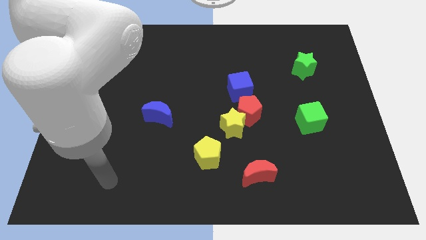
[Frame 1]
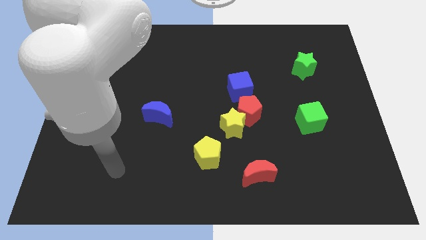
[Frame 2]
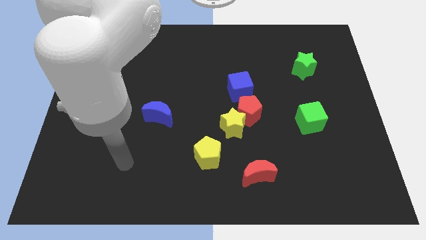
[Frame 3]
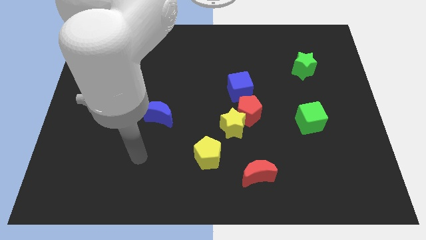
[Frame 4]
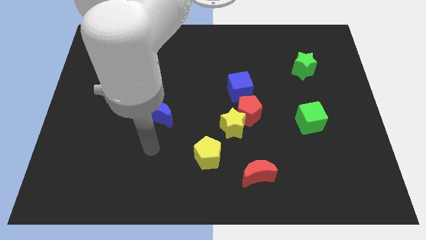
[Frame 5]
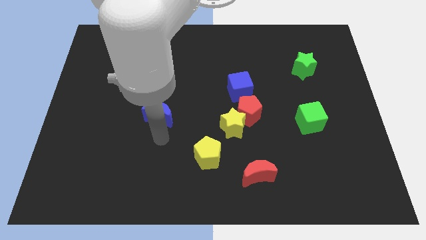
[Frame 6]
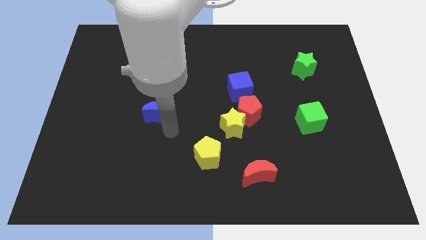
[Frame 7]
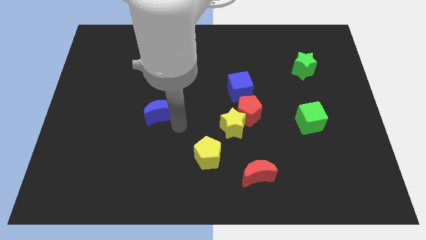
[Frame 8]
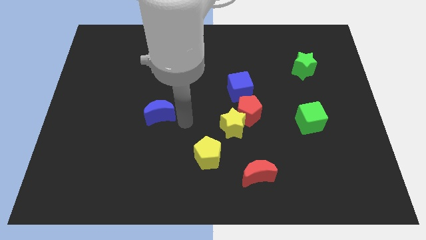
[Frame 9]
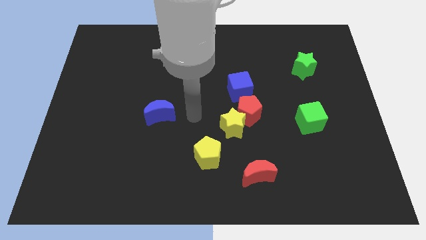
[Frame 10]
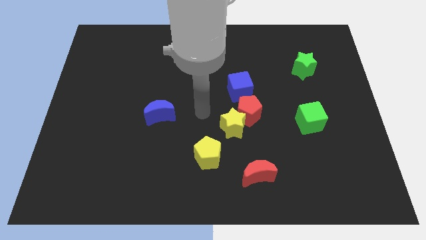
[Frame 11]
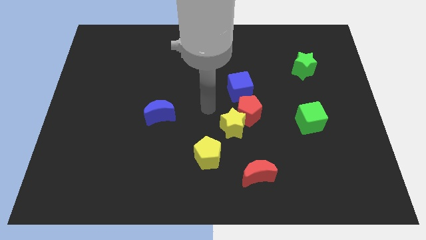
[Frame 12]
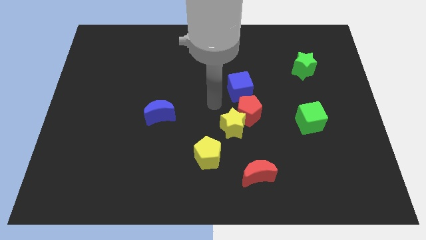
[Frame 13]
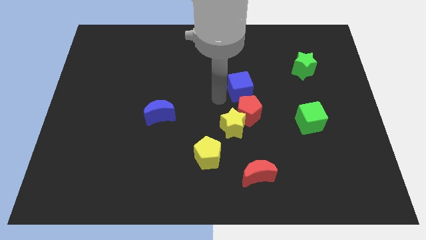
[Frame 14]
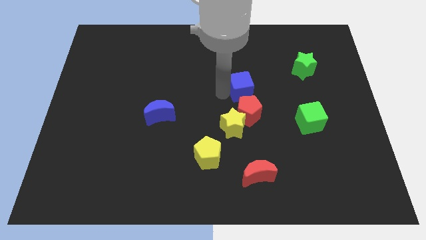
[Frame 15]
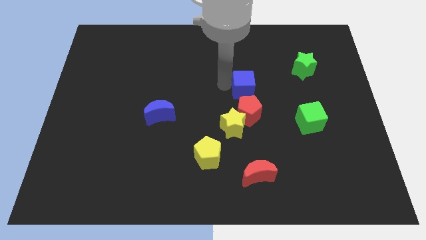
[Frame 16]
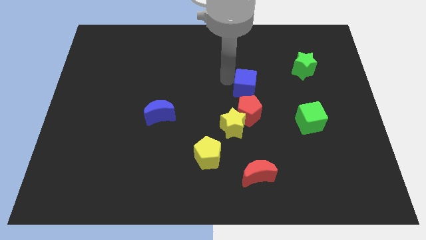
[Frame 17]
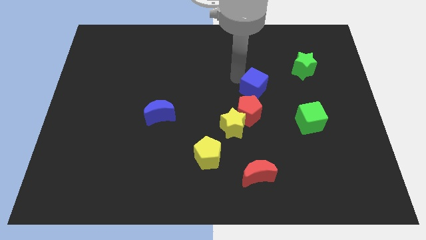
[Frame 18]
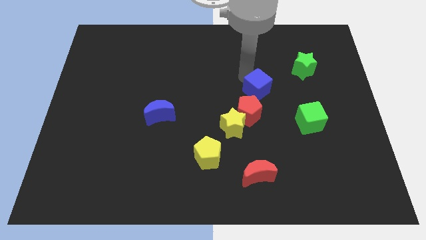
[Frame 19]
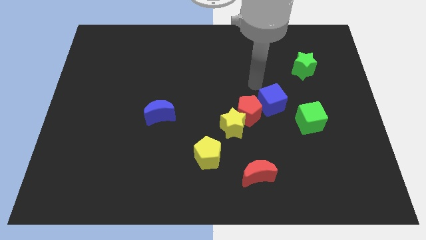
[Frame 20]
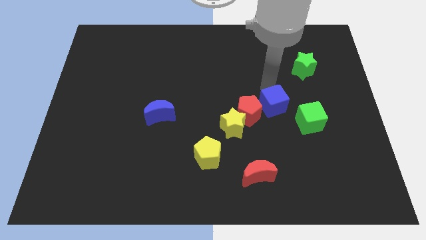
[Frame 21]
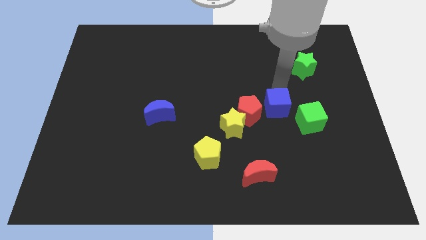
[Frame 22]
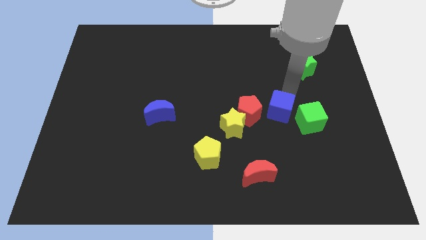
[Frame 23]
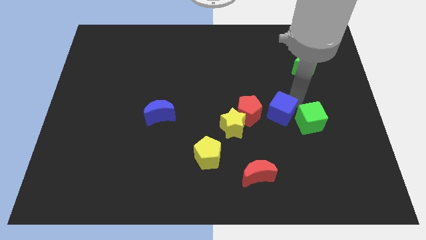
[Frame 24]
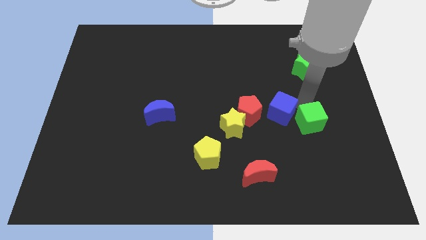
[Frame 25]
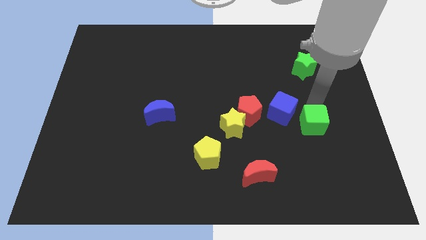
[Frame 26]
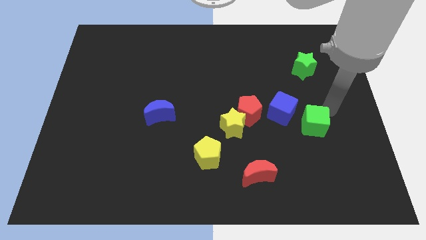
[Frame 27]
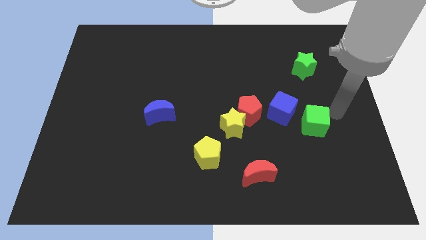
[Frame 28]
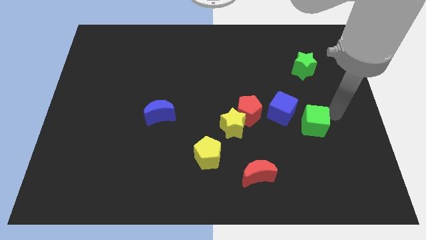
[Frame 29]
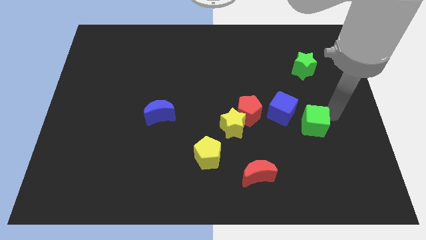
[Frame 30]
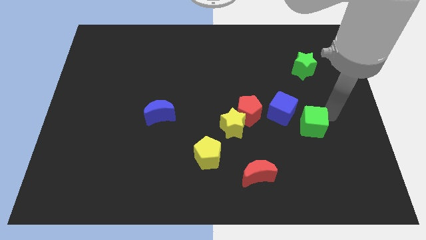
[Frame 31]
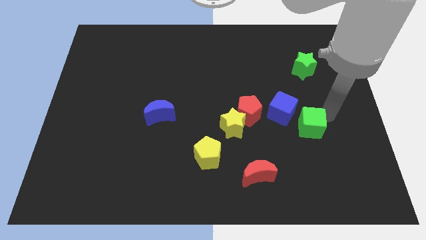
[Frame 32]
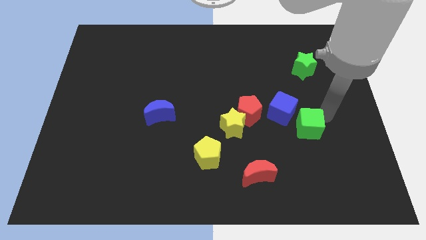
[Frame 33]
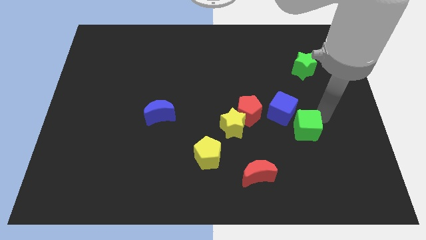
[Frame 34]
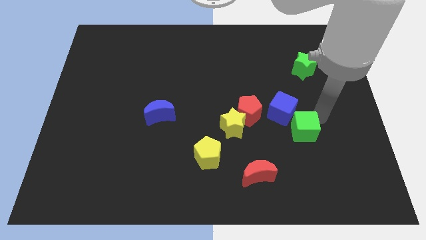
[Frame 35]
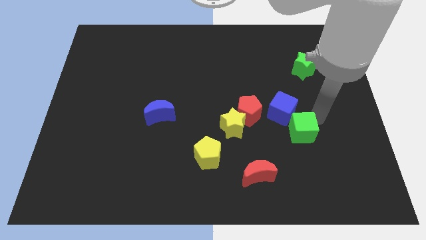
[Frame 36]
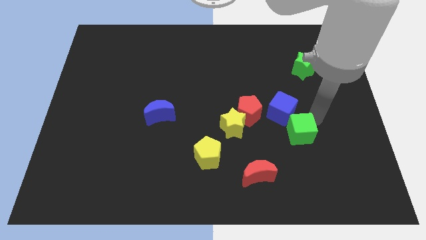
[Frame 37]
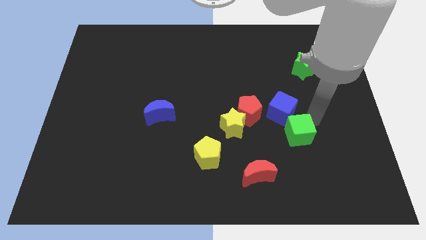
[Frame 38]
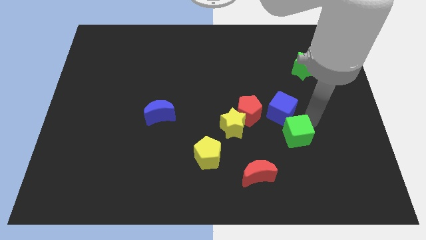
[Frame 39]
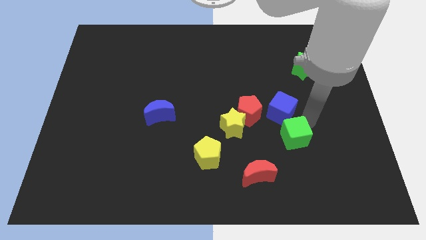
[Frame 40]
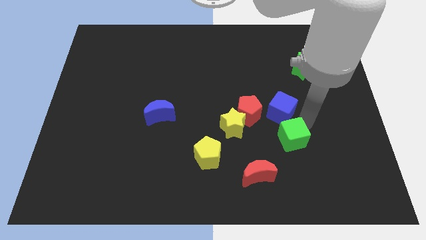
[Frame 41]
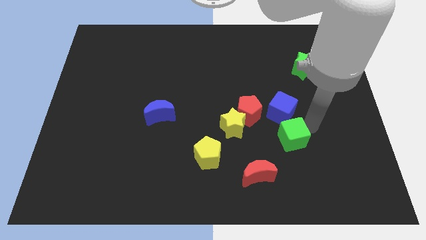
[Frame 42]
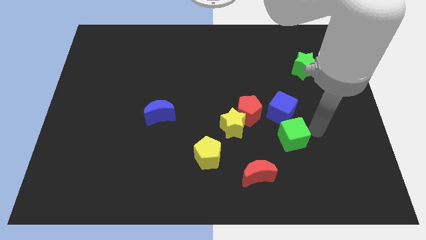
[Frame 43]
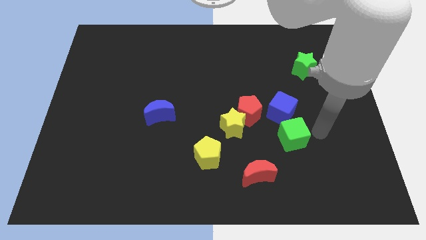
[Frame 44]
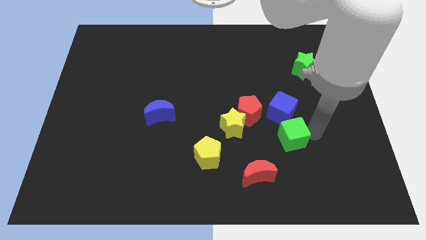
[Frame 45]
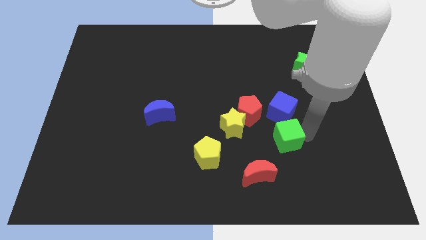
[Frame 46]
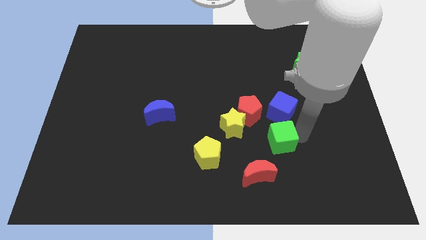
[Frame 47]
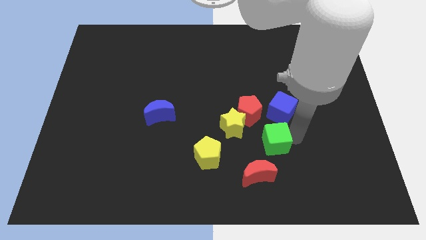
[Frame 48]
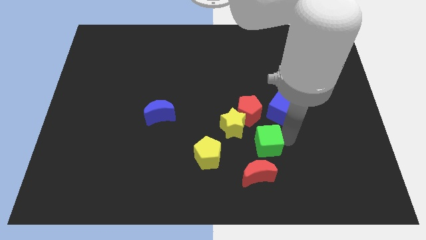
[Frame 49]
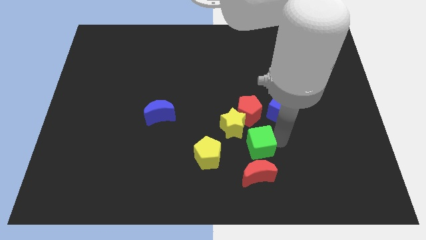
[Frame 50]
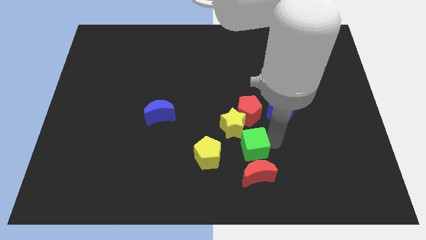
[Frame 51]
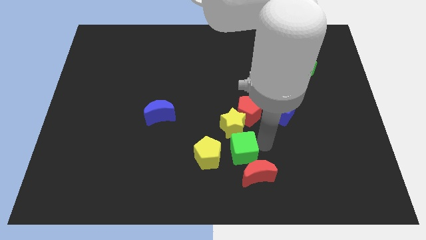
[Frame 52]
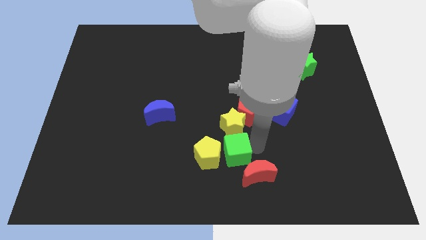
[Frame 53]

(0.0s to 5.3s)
push the green cube to the yellow pentagon

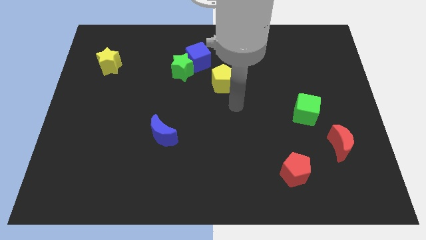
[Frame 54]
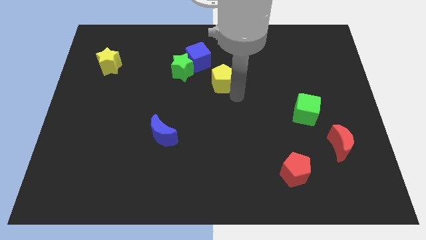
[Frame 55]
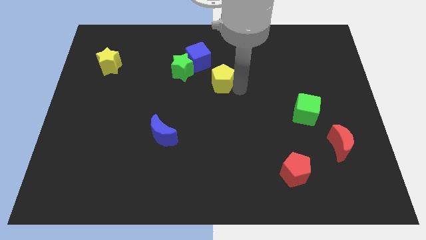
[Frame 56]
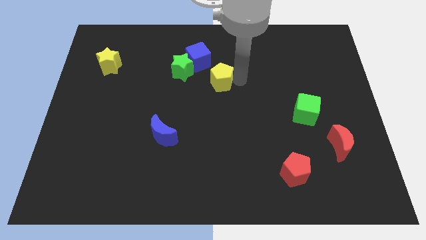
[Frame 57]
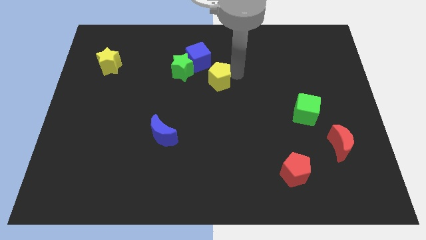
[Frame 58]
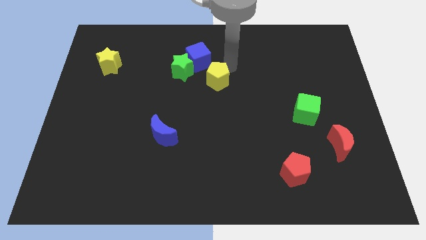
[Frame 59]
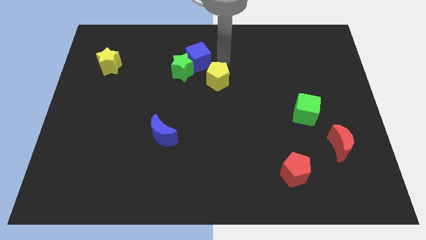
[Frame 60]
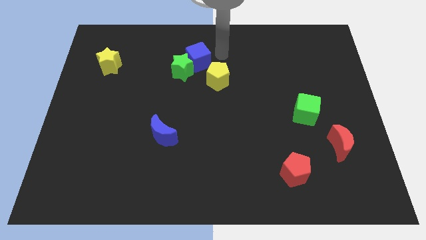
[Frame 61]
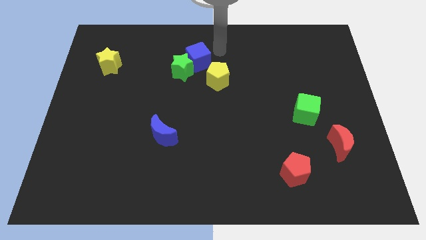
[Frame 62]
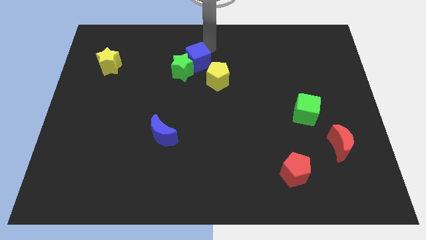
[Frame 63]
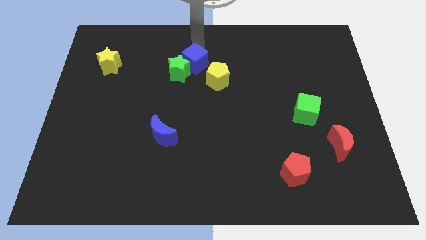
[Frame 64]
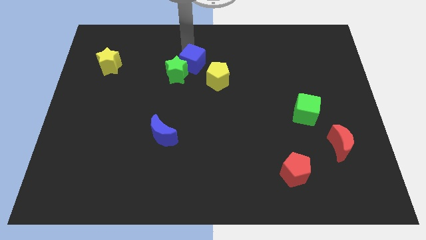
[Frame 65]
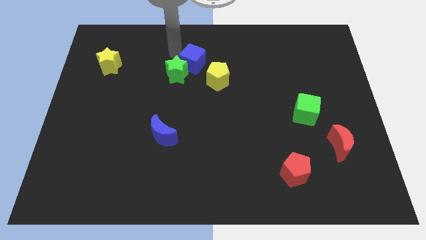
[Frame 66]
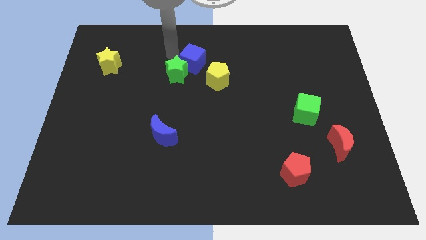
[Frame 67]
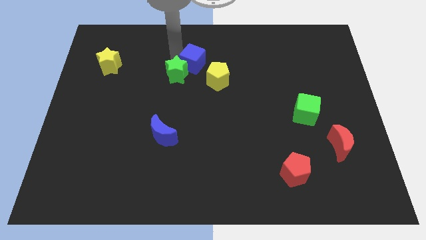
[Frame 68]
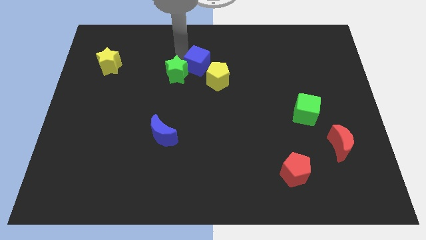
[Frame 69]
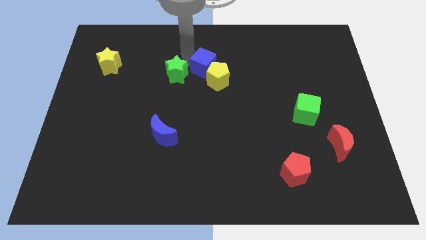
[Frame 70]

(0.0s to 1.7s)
put the blue cube close to the yellow pentagon
